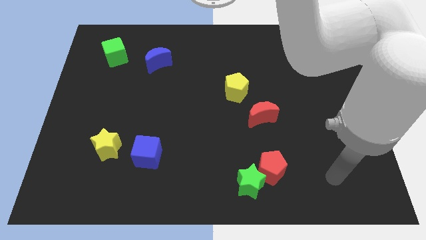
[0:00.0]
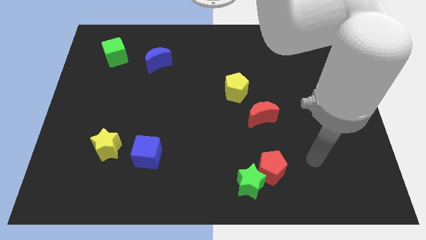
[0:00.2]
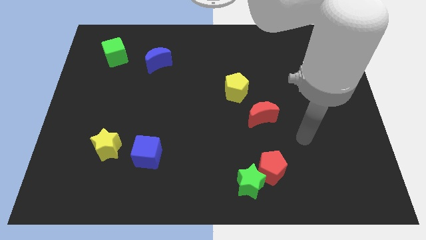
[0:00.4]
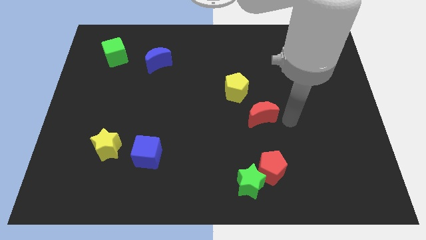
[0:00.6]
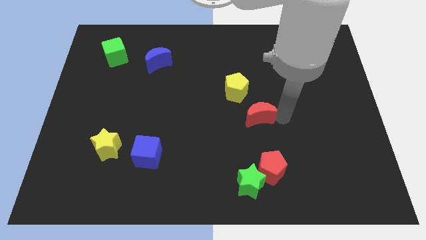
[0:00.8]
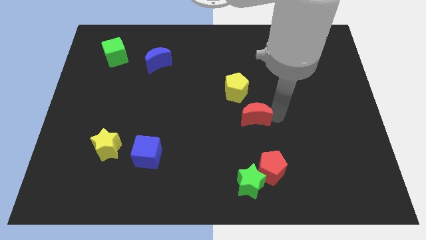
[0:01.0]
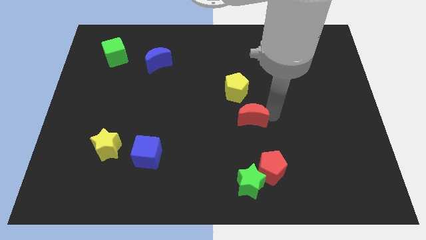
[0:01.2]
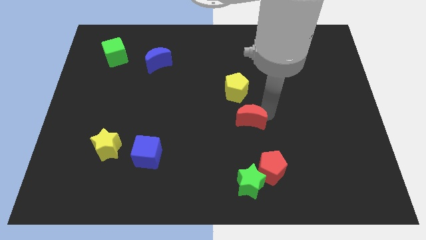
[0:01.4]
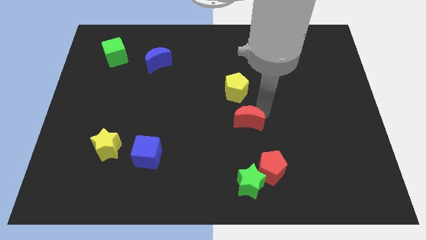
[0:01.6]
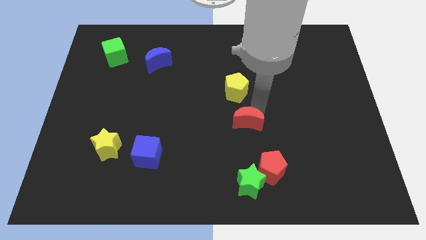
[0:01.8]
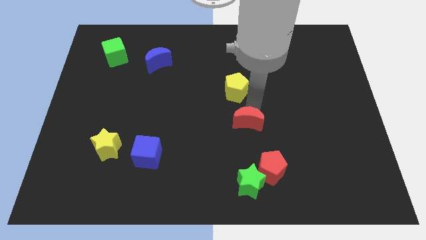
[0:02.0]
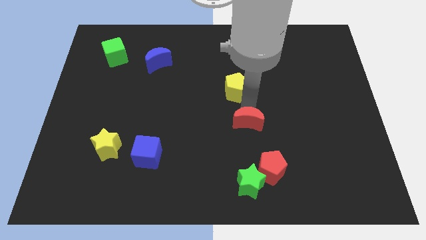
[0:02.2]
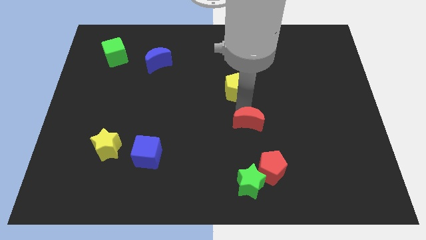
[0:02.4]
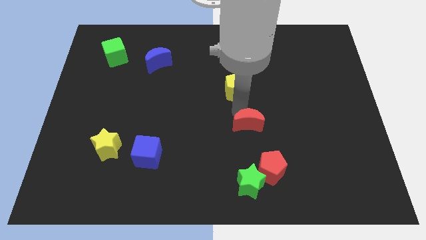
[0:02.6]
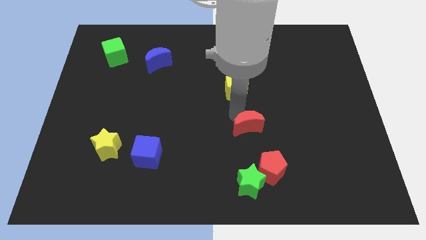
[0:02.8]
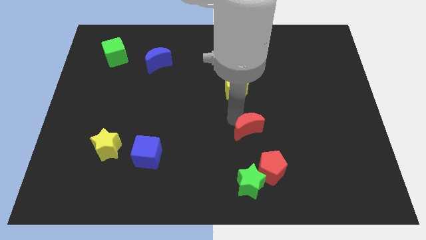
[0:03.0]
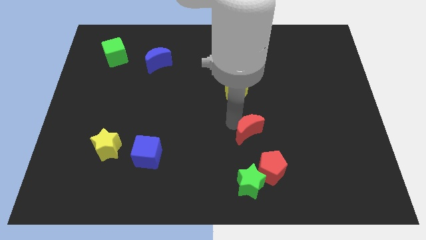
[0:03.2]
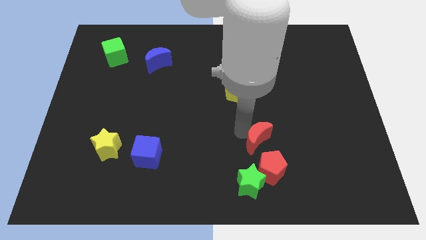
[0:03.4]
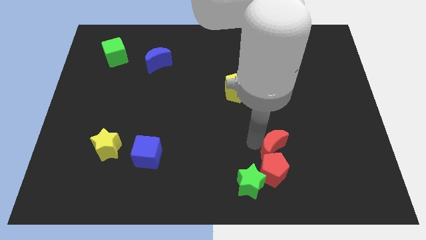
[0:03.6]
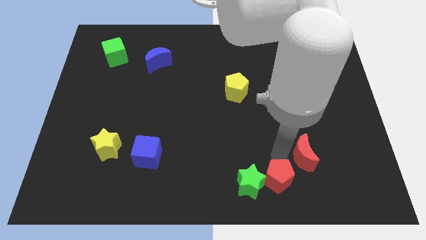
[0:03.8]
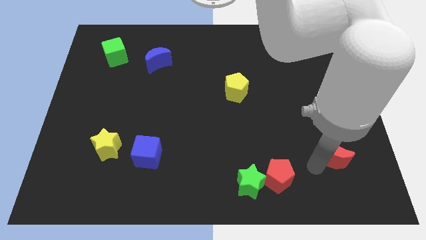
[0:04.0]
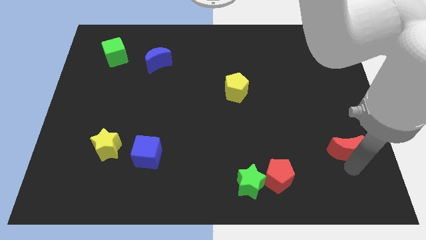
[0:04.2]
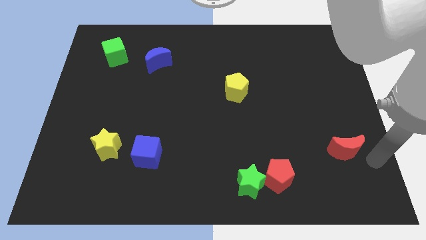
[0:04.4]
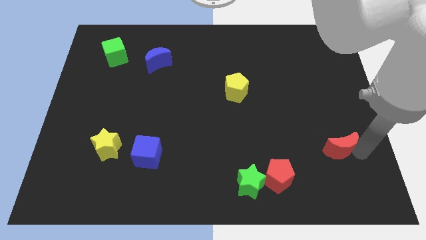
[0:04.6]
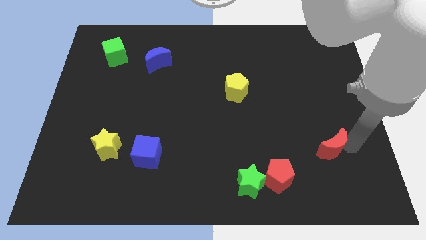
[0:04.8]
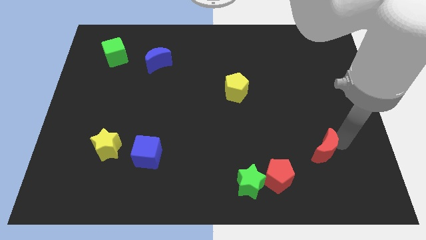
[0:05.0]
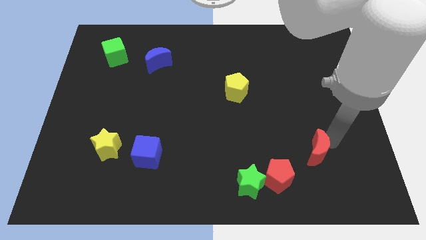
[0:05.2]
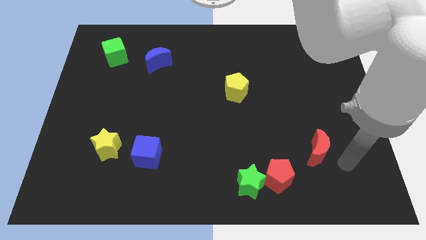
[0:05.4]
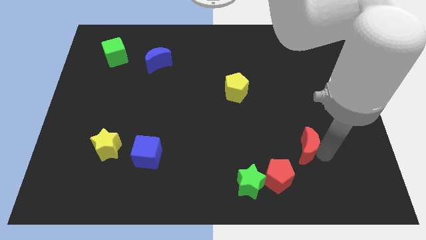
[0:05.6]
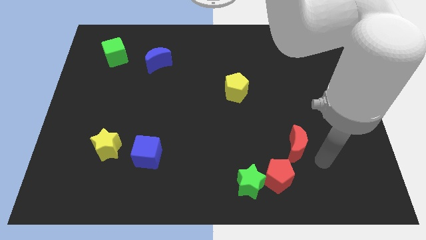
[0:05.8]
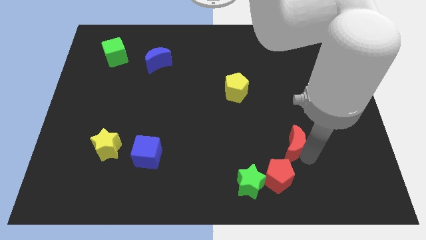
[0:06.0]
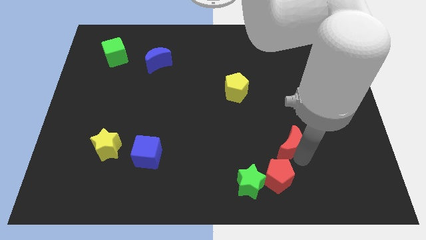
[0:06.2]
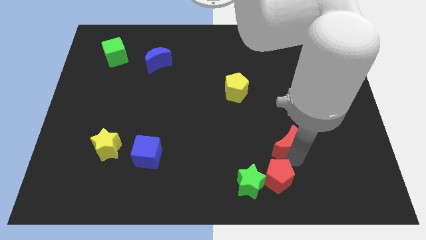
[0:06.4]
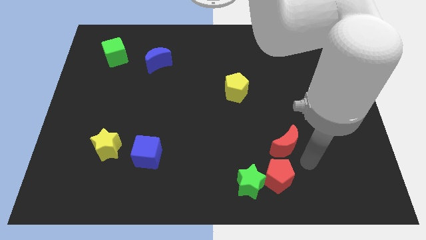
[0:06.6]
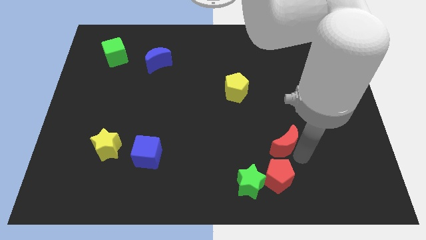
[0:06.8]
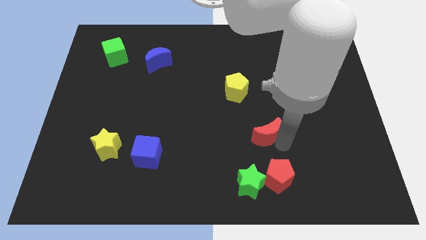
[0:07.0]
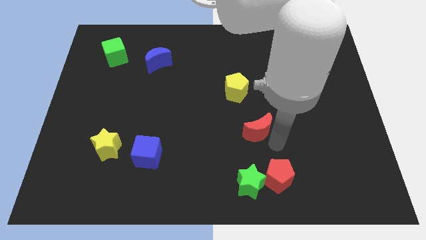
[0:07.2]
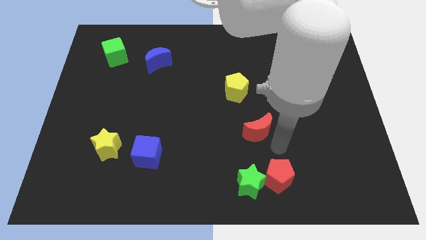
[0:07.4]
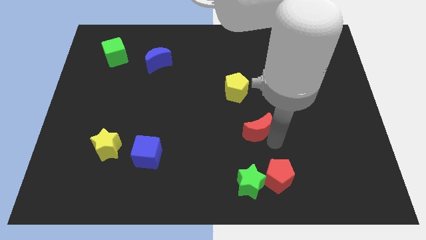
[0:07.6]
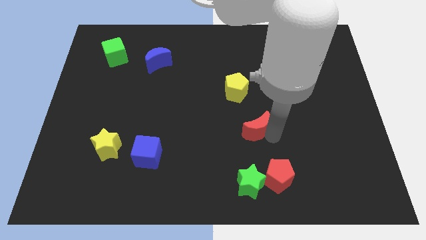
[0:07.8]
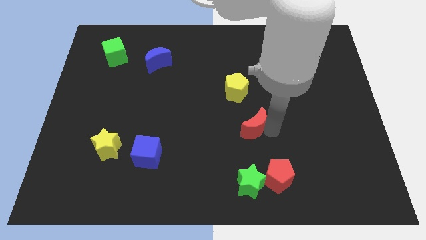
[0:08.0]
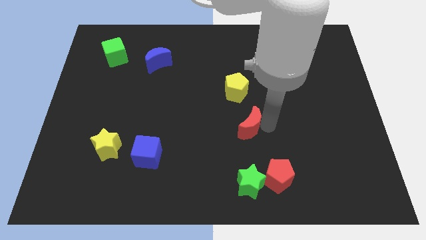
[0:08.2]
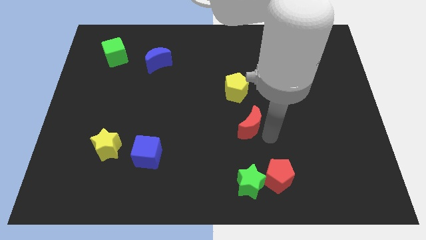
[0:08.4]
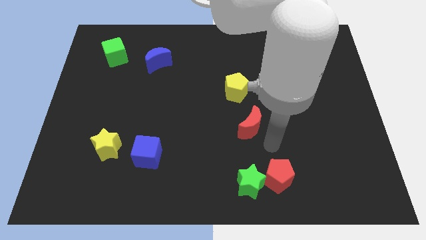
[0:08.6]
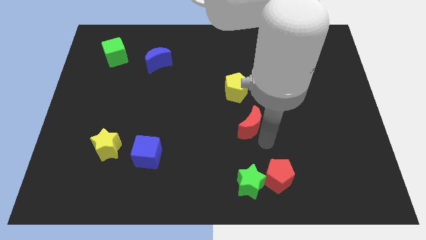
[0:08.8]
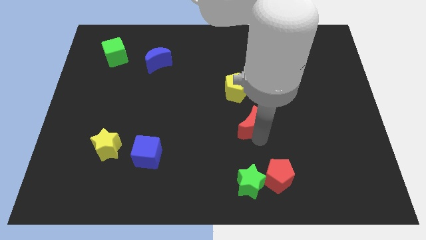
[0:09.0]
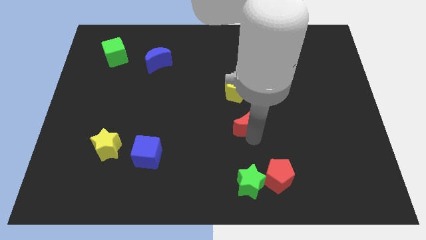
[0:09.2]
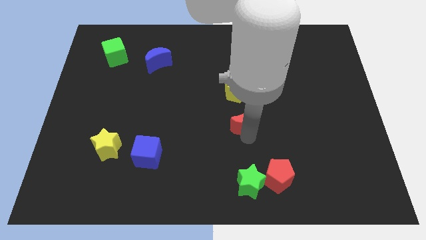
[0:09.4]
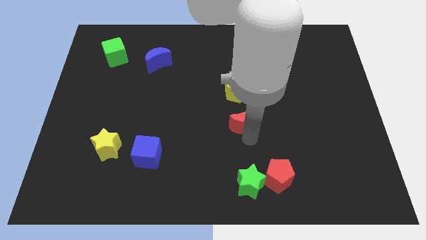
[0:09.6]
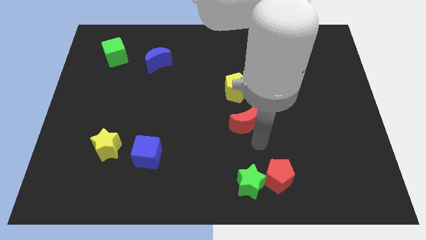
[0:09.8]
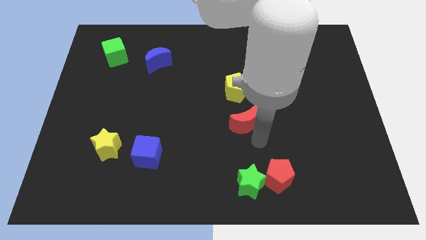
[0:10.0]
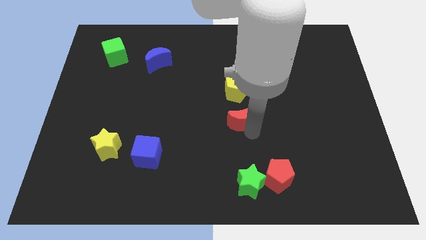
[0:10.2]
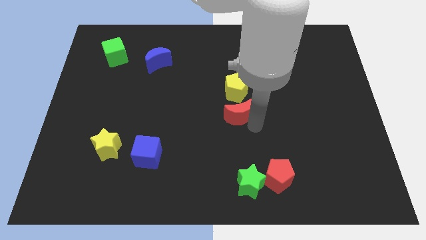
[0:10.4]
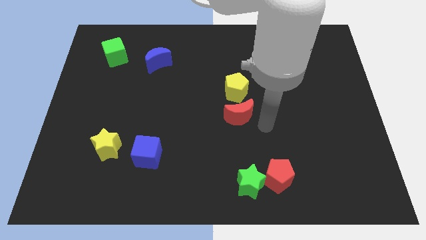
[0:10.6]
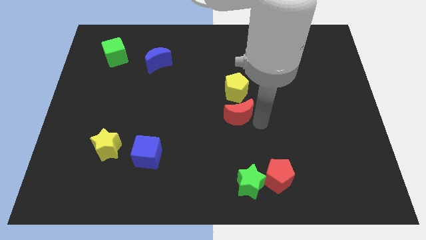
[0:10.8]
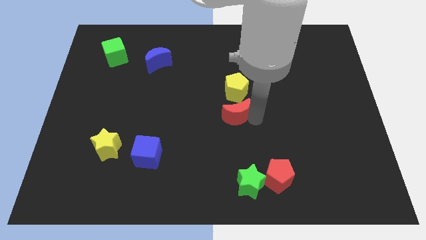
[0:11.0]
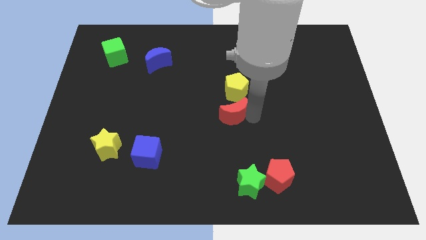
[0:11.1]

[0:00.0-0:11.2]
move the red moon diagonally down and to the left of the yellow pentagon
